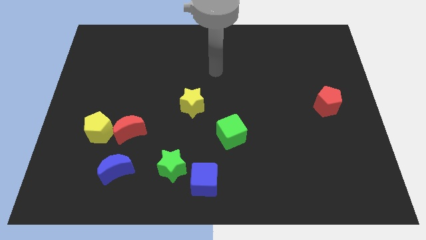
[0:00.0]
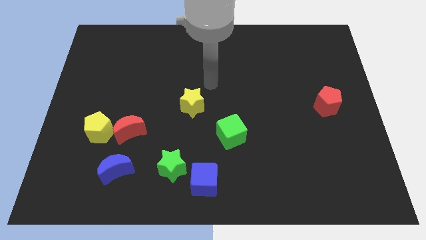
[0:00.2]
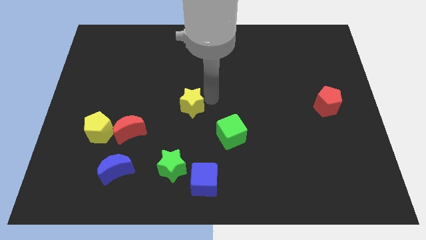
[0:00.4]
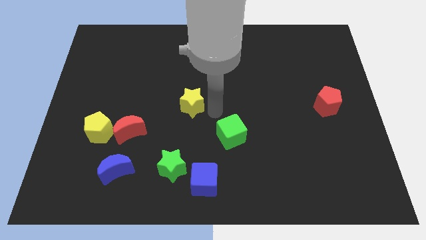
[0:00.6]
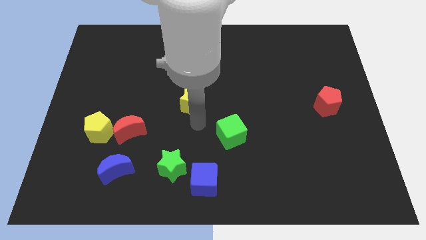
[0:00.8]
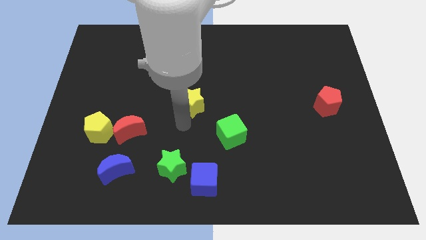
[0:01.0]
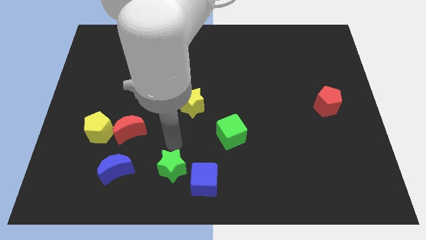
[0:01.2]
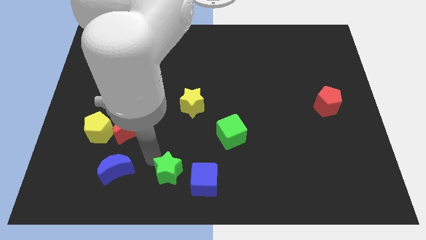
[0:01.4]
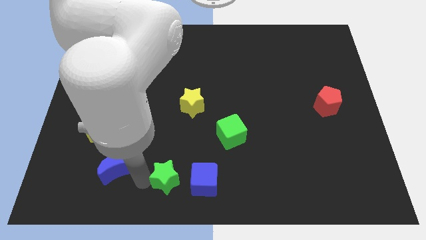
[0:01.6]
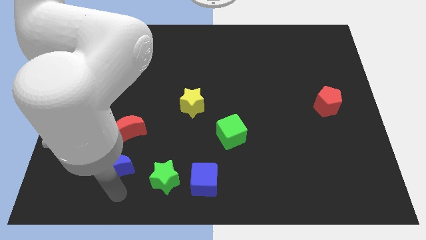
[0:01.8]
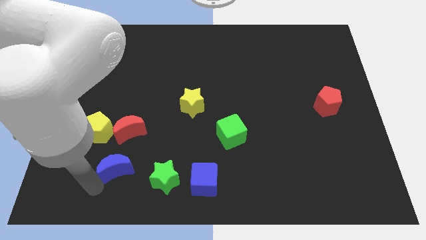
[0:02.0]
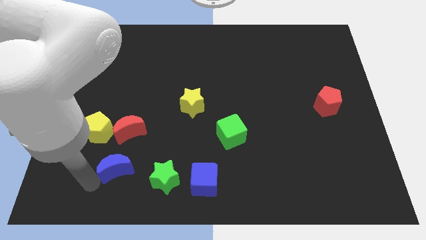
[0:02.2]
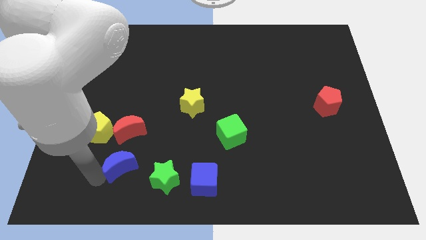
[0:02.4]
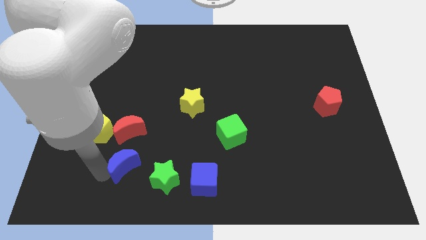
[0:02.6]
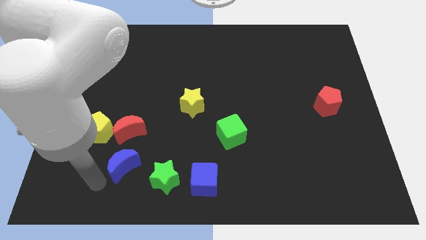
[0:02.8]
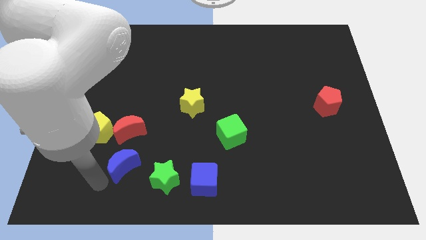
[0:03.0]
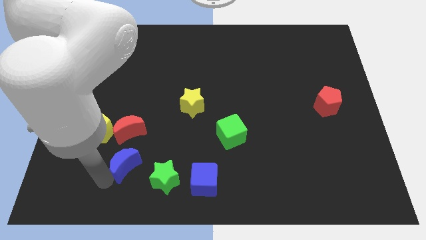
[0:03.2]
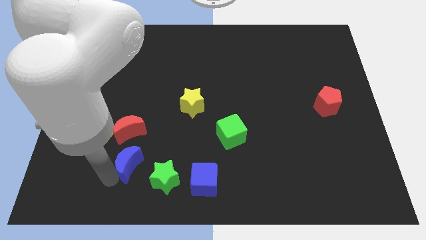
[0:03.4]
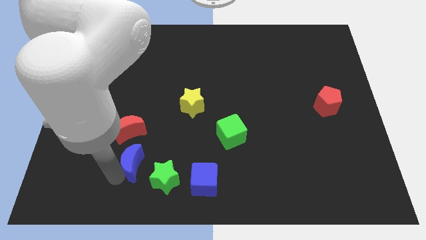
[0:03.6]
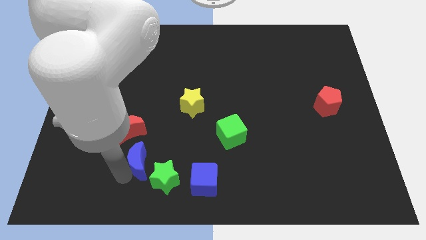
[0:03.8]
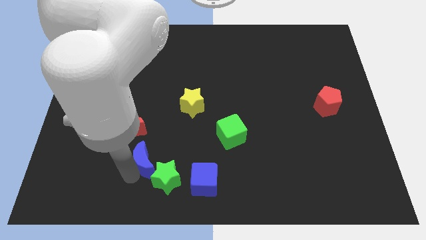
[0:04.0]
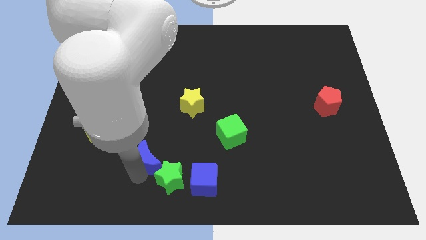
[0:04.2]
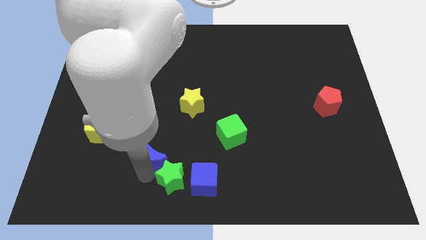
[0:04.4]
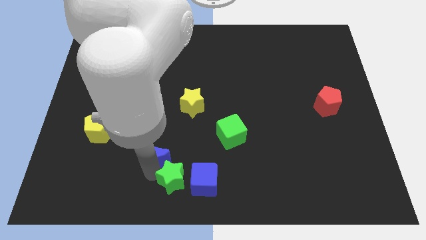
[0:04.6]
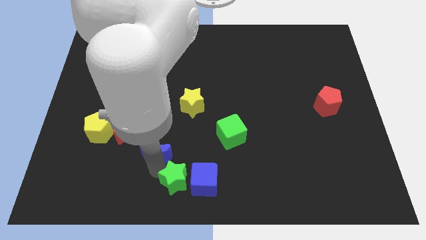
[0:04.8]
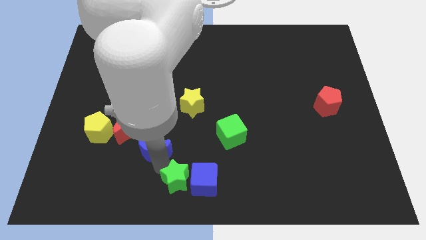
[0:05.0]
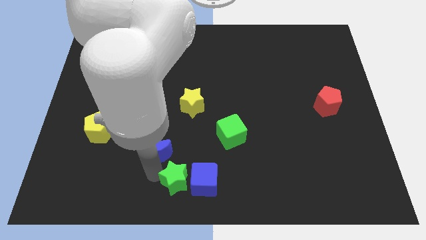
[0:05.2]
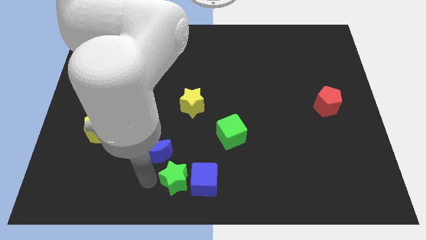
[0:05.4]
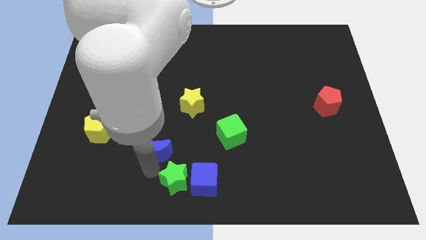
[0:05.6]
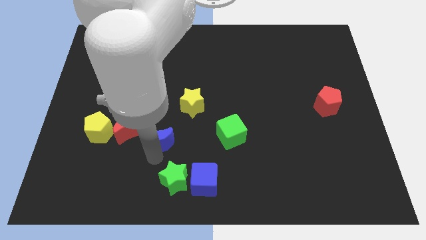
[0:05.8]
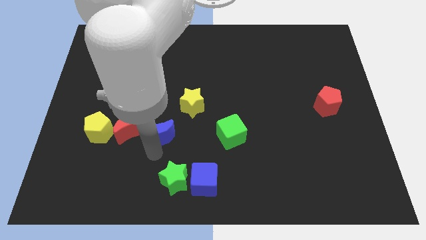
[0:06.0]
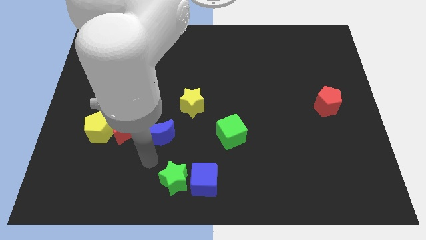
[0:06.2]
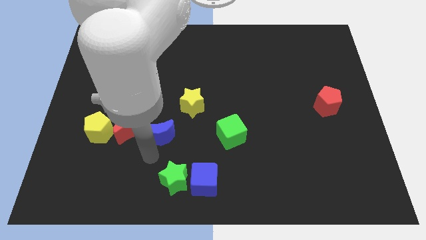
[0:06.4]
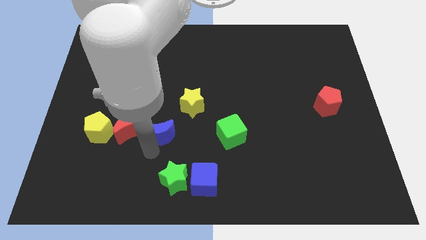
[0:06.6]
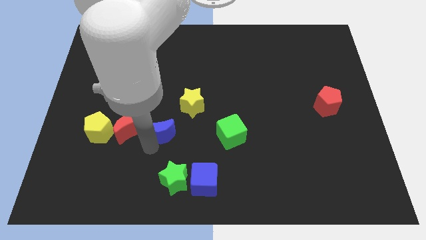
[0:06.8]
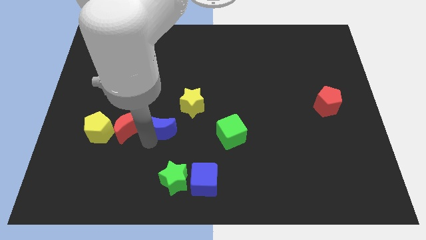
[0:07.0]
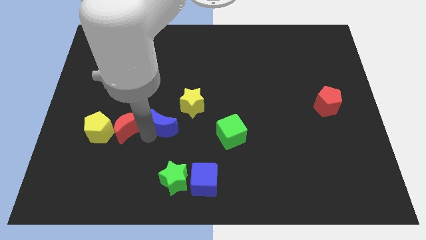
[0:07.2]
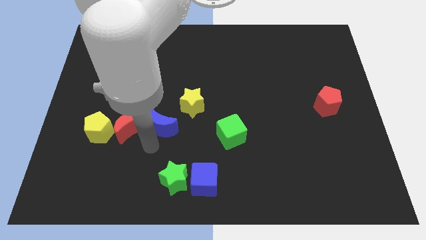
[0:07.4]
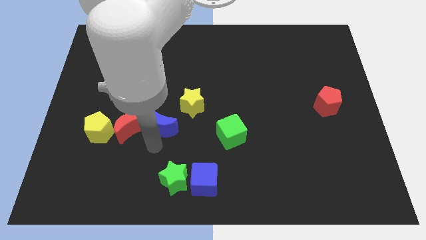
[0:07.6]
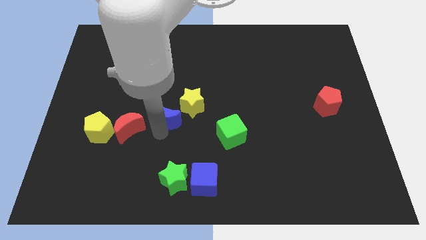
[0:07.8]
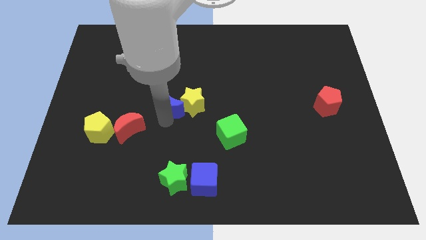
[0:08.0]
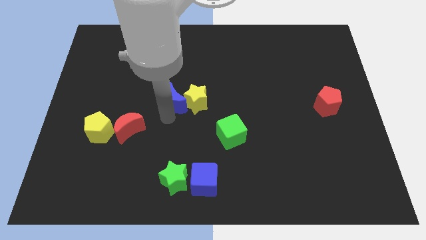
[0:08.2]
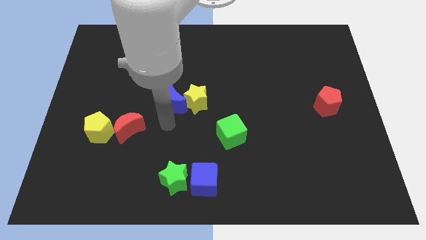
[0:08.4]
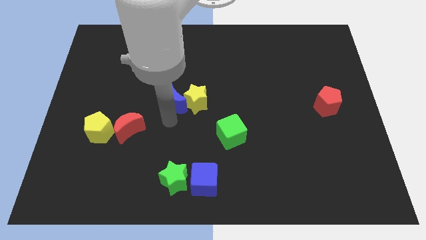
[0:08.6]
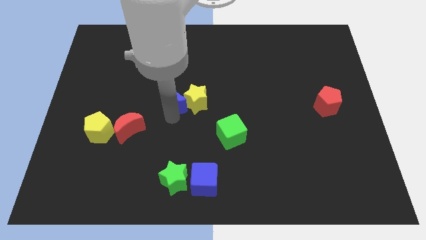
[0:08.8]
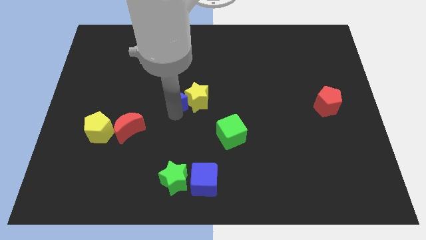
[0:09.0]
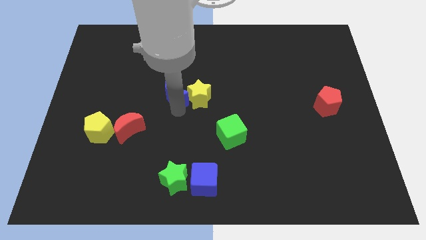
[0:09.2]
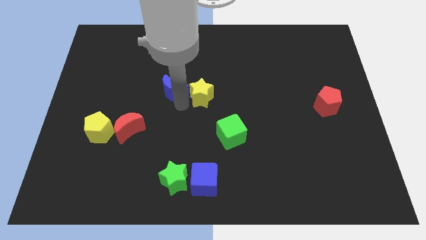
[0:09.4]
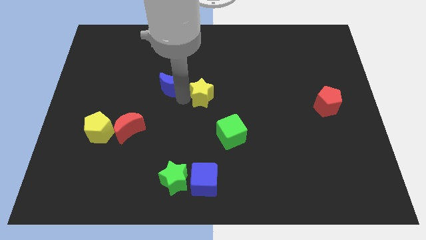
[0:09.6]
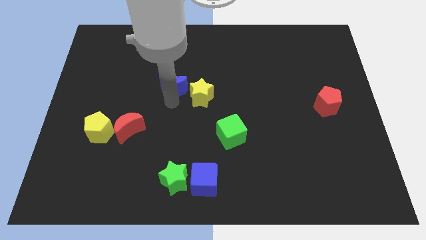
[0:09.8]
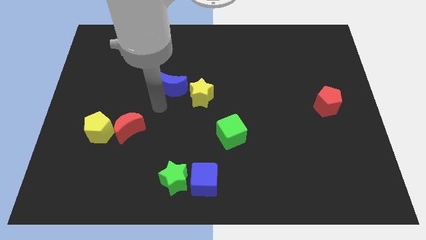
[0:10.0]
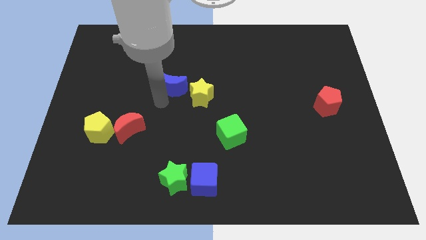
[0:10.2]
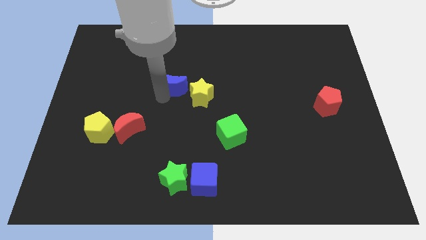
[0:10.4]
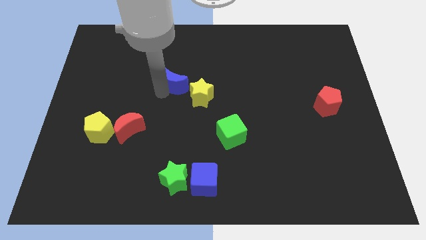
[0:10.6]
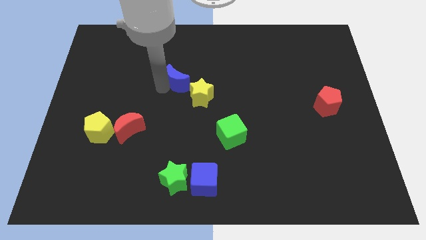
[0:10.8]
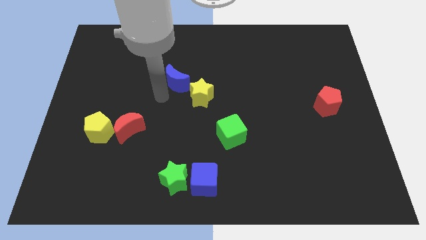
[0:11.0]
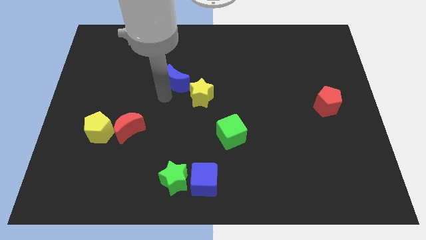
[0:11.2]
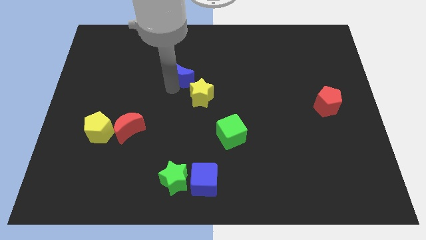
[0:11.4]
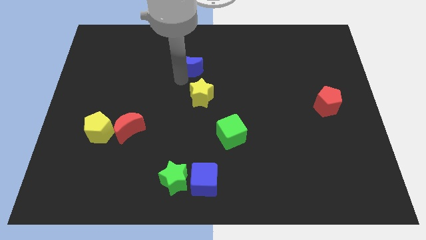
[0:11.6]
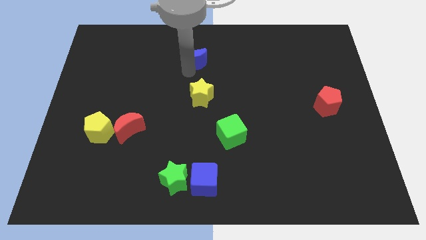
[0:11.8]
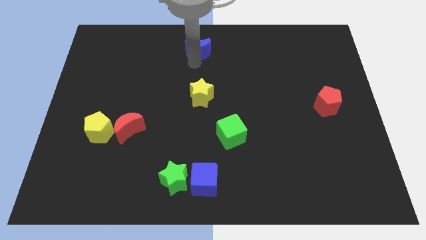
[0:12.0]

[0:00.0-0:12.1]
slide the blue moon to the towards your base
